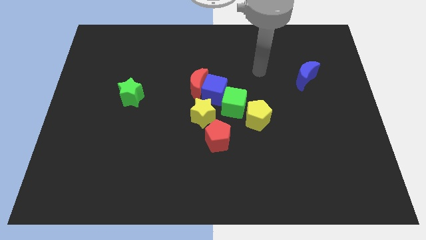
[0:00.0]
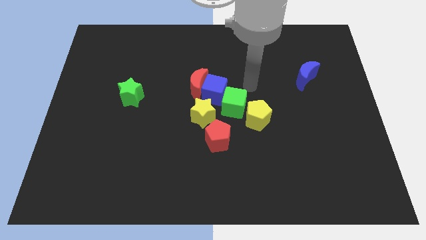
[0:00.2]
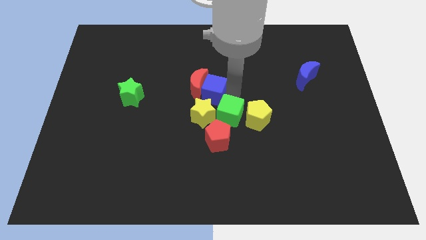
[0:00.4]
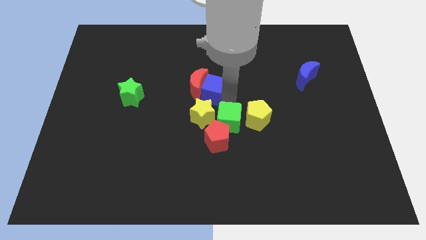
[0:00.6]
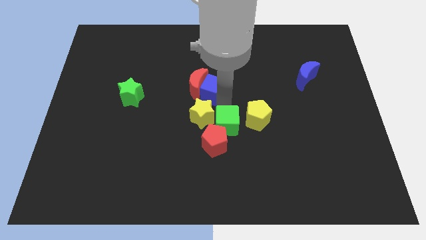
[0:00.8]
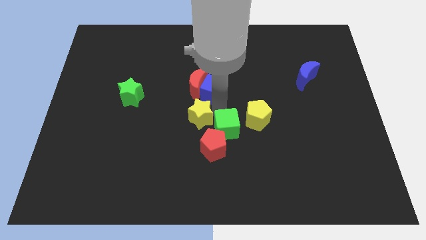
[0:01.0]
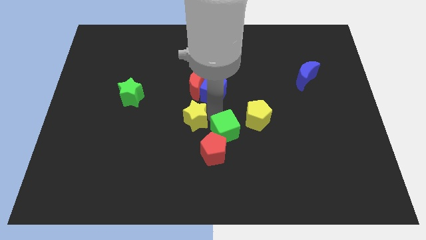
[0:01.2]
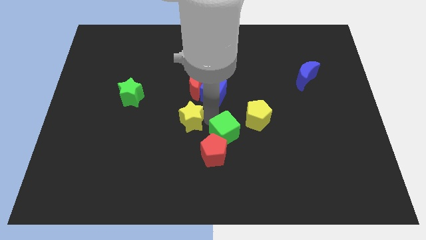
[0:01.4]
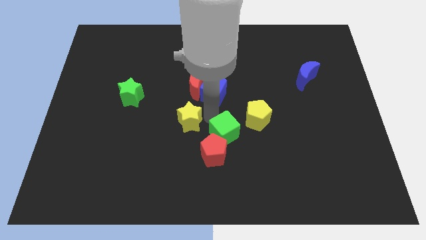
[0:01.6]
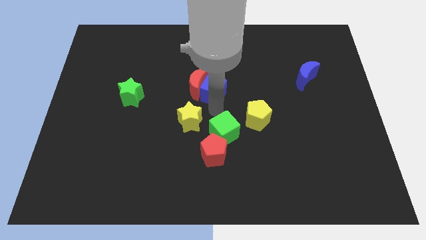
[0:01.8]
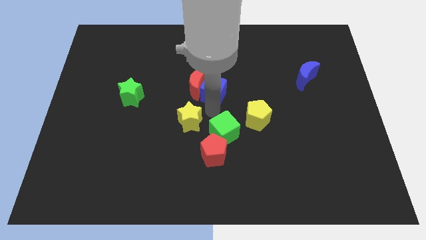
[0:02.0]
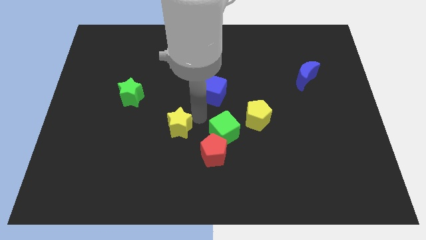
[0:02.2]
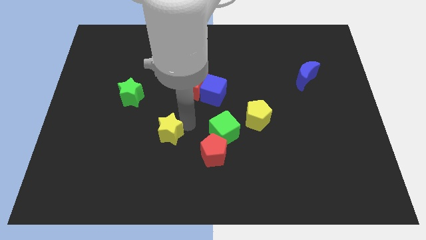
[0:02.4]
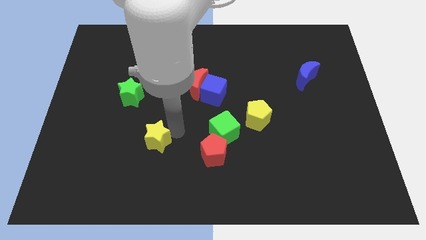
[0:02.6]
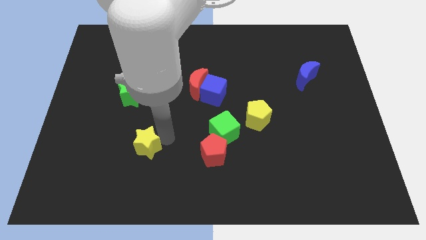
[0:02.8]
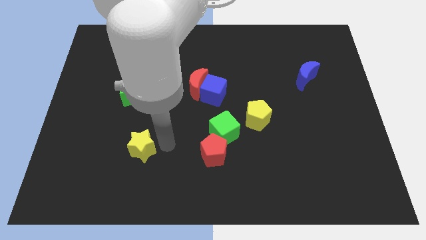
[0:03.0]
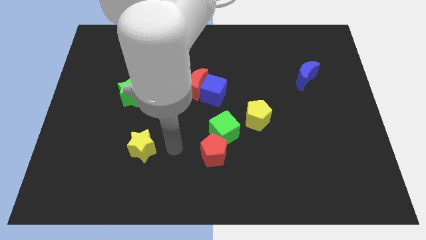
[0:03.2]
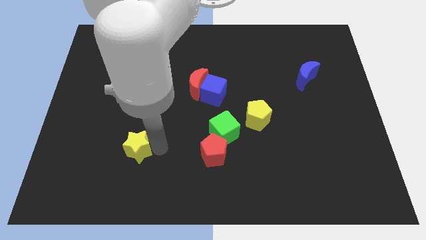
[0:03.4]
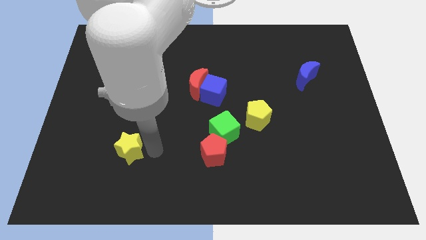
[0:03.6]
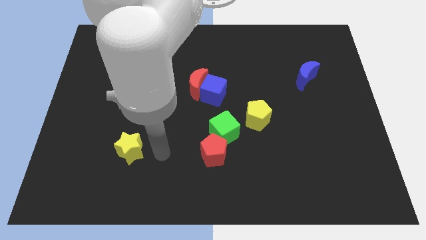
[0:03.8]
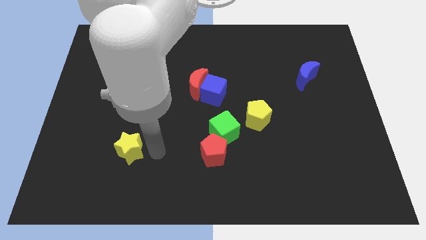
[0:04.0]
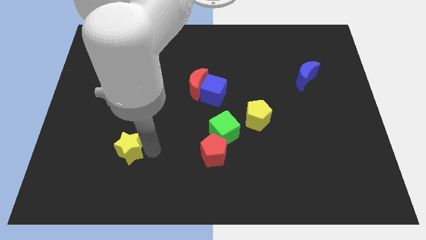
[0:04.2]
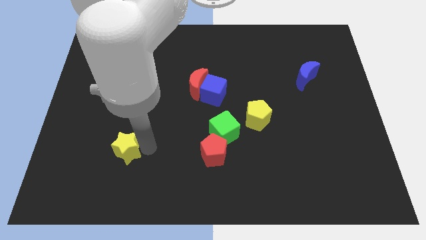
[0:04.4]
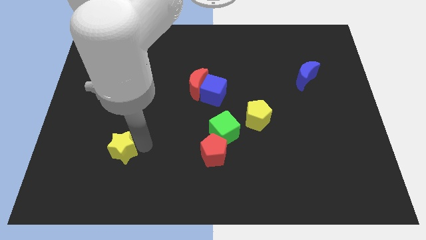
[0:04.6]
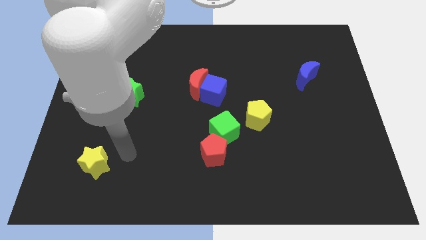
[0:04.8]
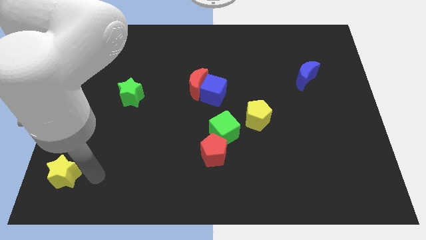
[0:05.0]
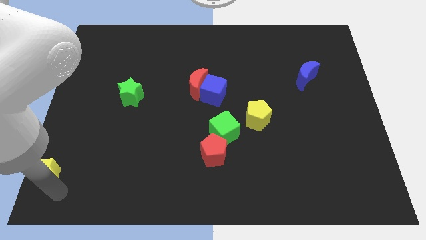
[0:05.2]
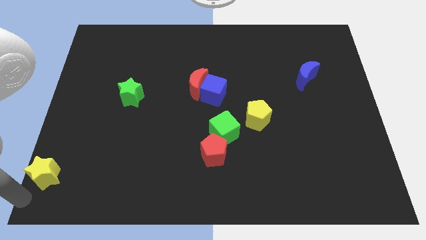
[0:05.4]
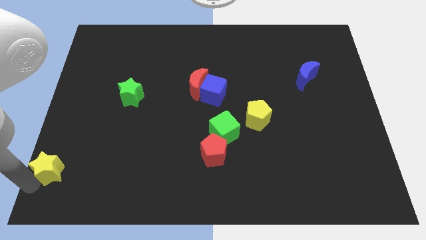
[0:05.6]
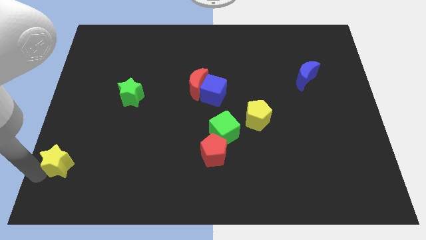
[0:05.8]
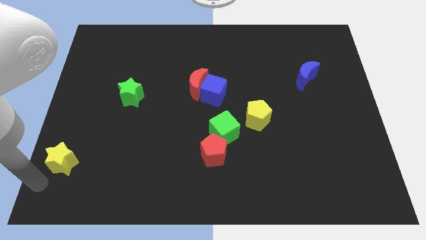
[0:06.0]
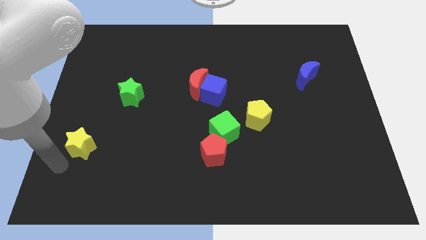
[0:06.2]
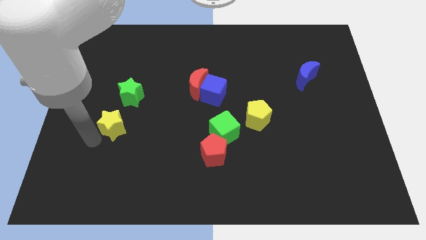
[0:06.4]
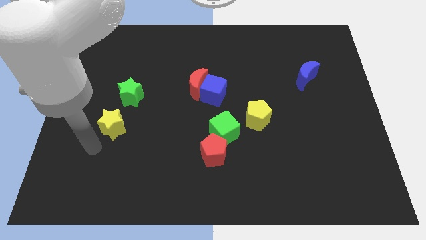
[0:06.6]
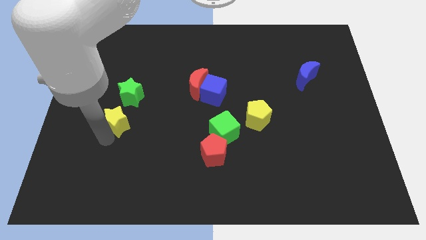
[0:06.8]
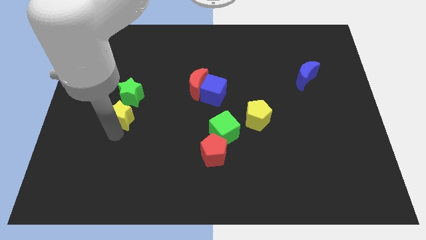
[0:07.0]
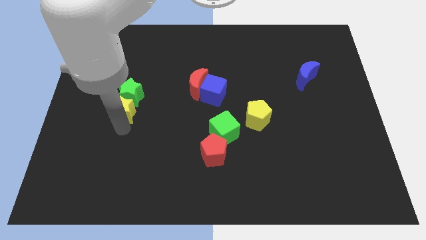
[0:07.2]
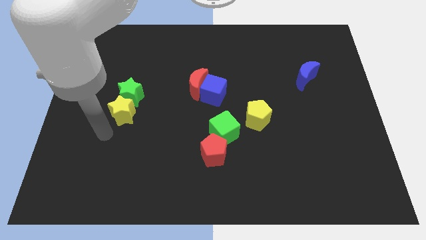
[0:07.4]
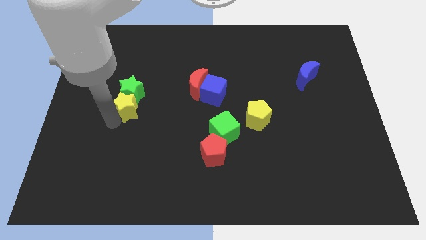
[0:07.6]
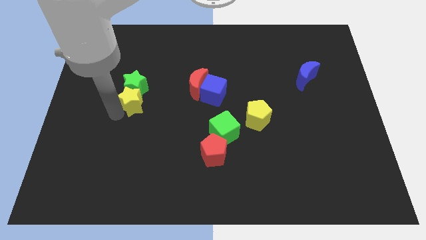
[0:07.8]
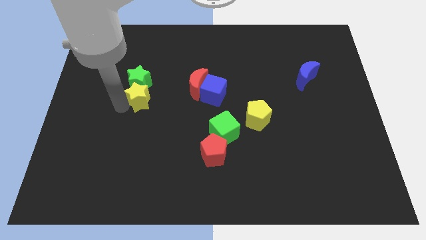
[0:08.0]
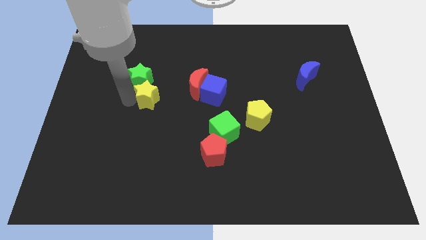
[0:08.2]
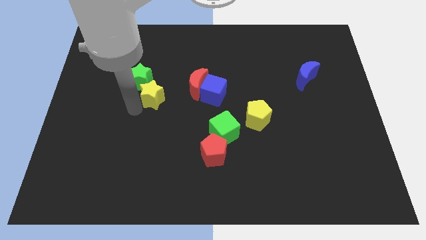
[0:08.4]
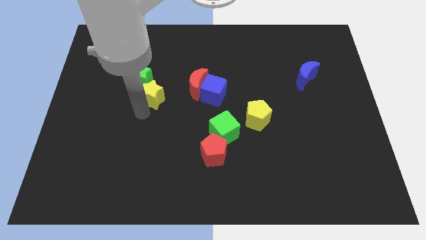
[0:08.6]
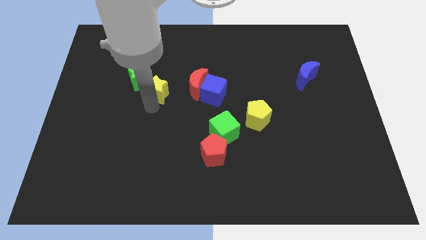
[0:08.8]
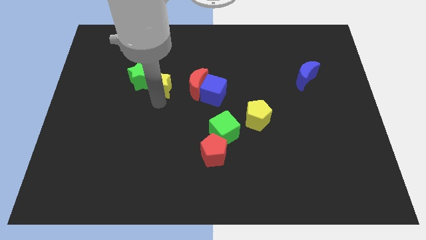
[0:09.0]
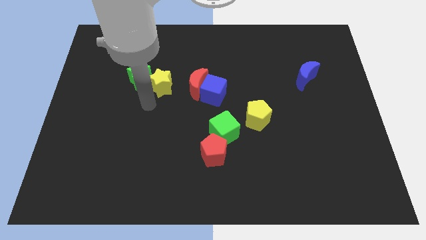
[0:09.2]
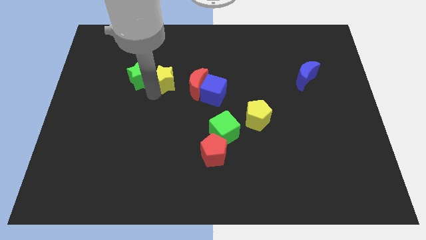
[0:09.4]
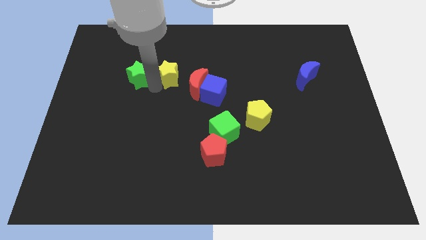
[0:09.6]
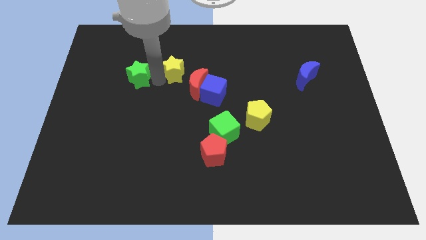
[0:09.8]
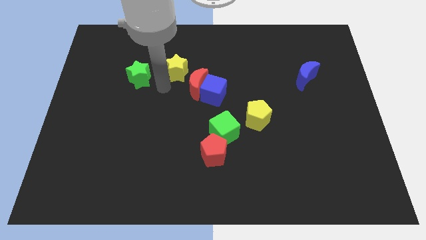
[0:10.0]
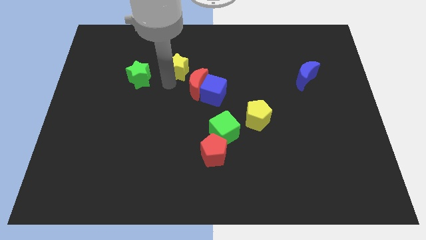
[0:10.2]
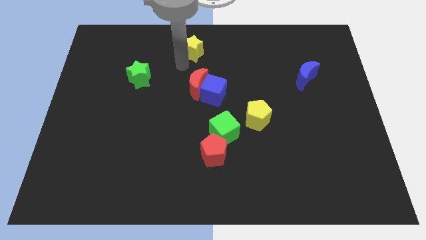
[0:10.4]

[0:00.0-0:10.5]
move the yellow star to the towards your base

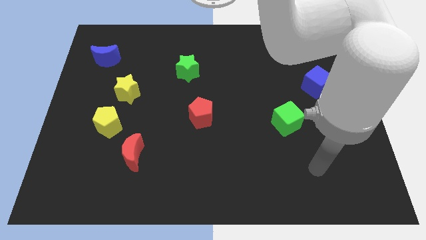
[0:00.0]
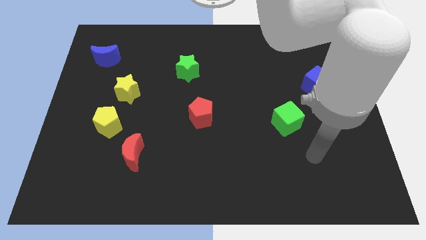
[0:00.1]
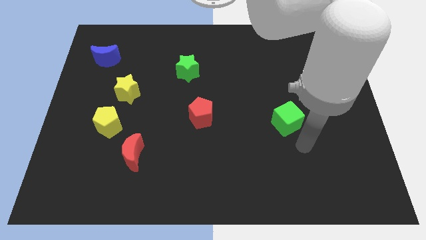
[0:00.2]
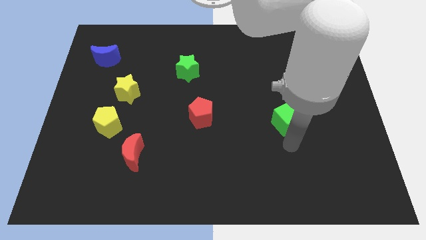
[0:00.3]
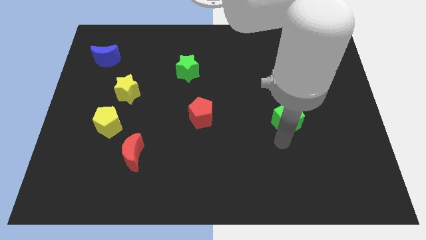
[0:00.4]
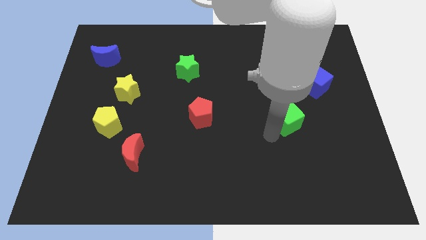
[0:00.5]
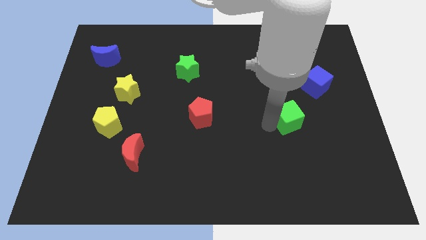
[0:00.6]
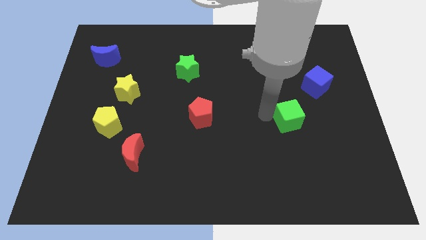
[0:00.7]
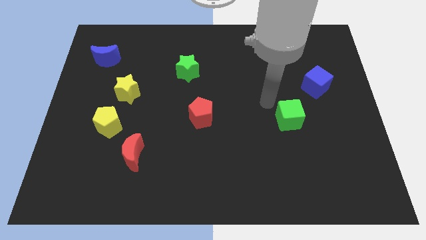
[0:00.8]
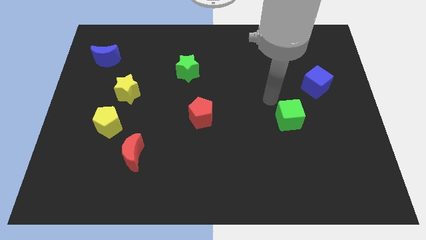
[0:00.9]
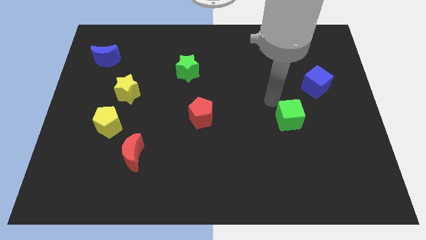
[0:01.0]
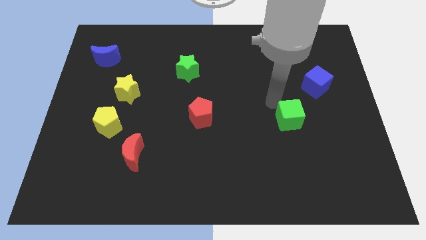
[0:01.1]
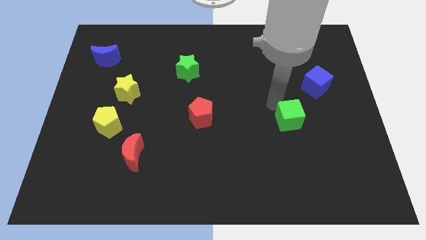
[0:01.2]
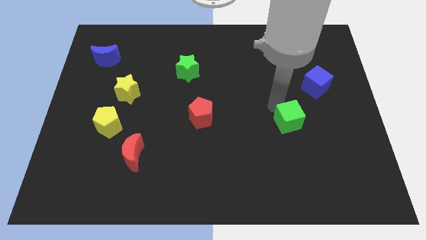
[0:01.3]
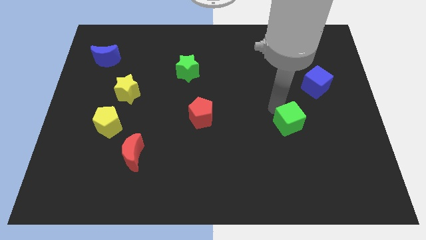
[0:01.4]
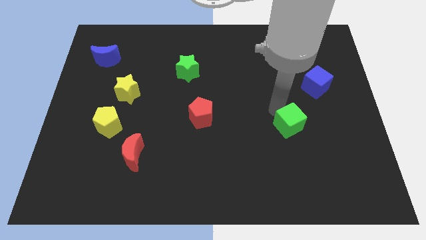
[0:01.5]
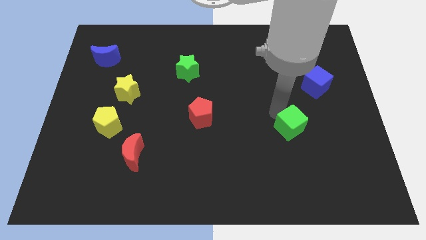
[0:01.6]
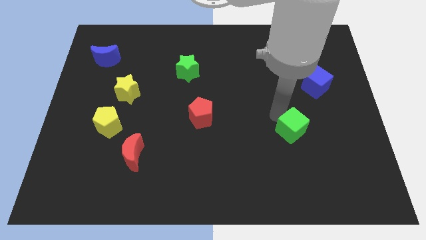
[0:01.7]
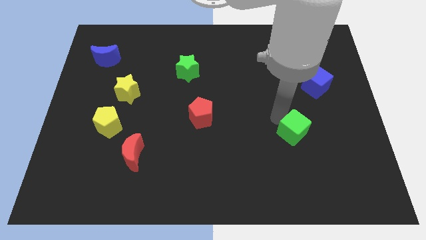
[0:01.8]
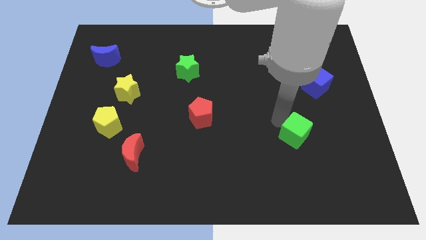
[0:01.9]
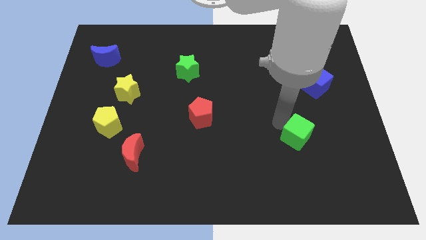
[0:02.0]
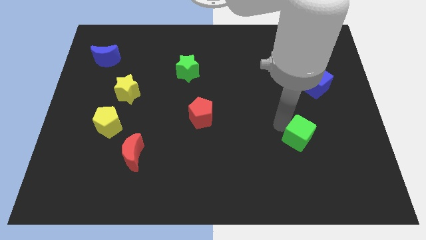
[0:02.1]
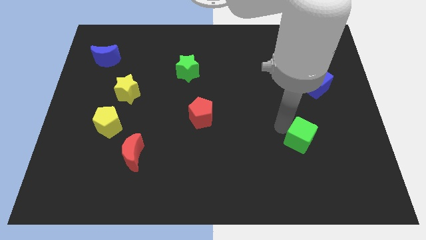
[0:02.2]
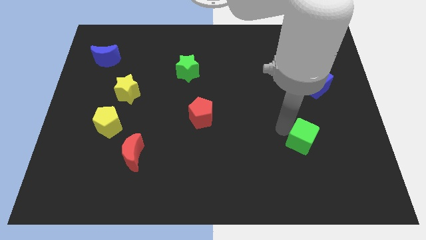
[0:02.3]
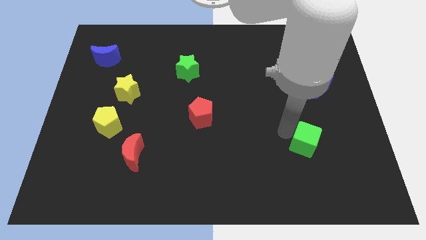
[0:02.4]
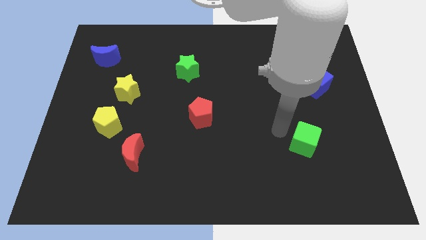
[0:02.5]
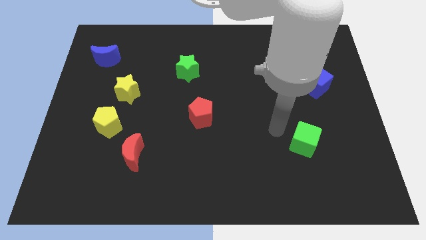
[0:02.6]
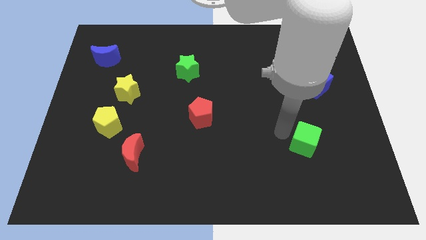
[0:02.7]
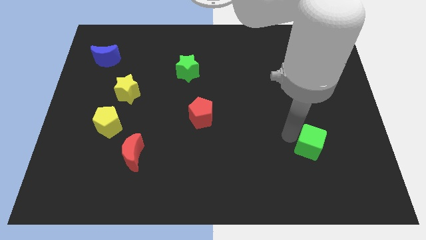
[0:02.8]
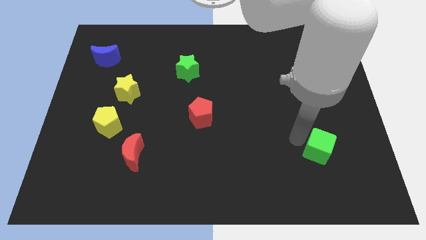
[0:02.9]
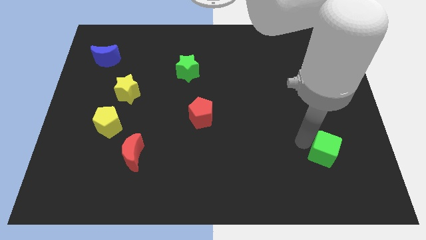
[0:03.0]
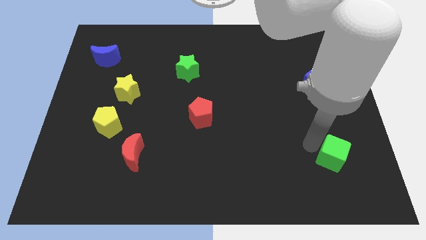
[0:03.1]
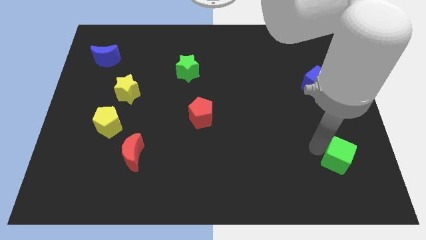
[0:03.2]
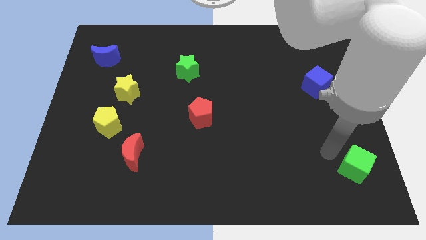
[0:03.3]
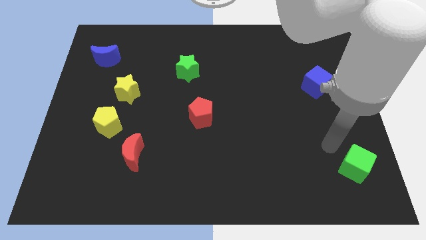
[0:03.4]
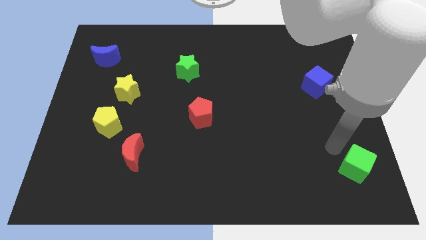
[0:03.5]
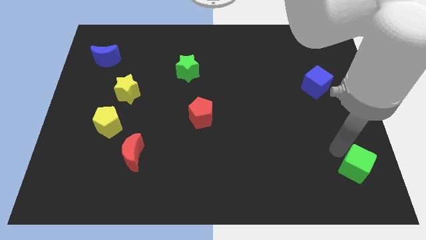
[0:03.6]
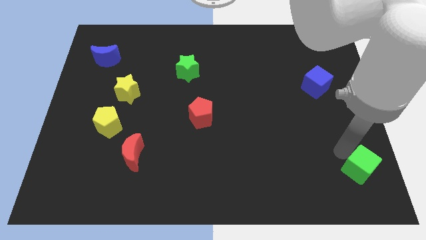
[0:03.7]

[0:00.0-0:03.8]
push the green cube to the bottom right corner
